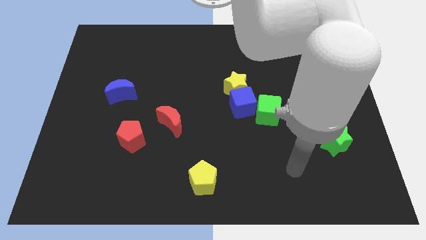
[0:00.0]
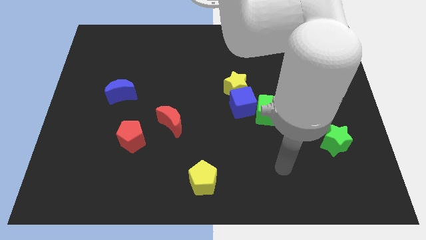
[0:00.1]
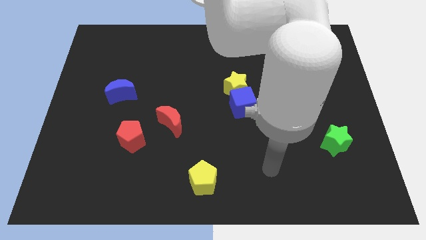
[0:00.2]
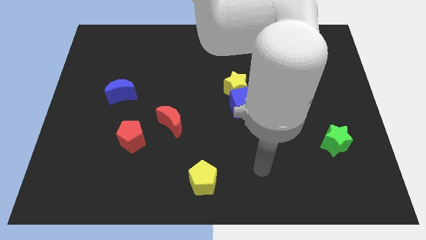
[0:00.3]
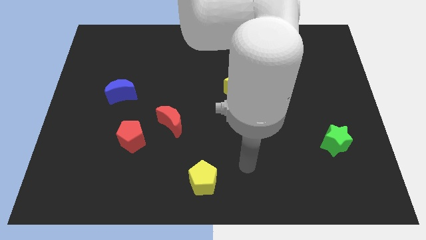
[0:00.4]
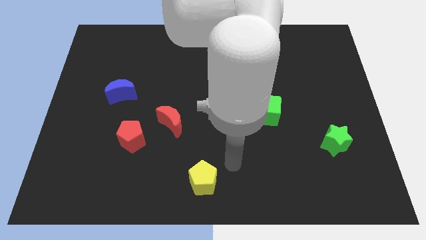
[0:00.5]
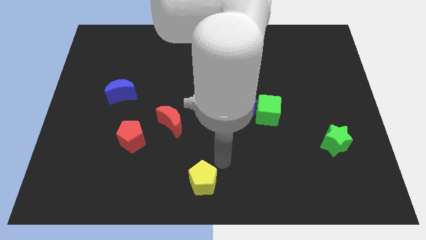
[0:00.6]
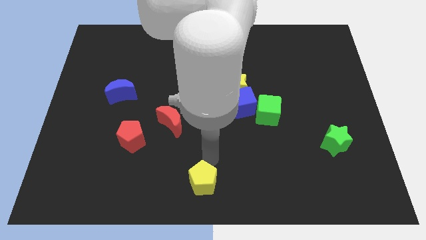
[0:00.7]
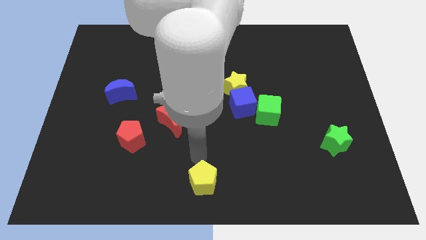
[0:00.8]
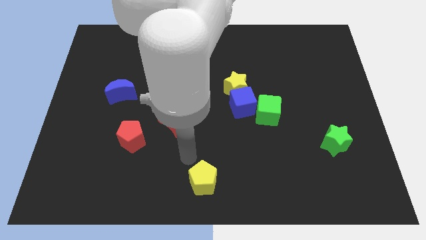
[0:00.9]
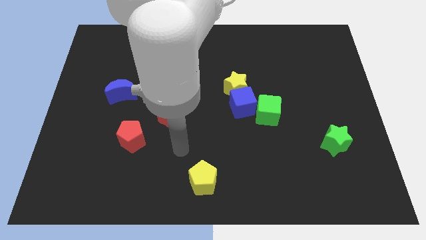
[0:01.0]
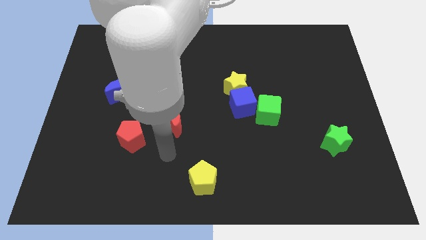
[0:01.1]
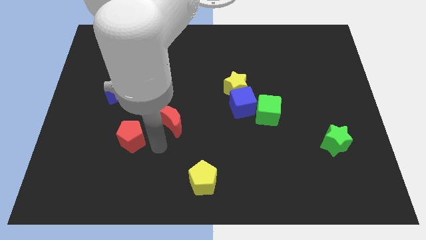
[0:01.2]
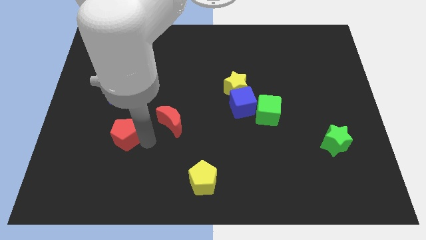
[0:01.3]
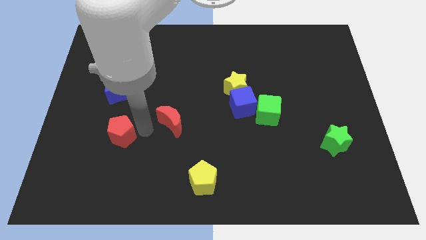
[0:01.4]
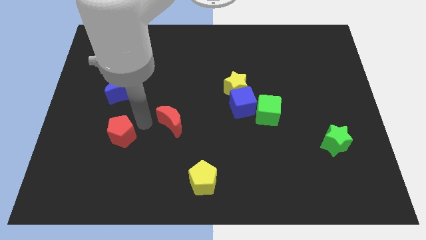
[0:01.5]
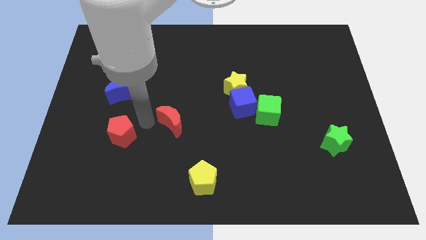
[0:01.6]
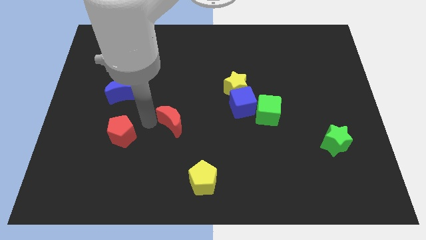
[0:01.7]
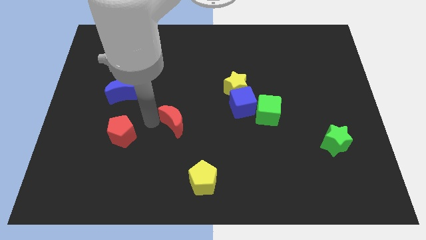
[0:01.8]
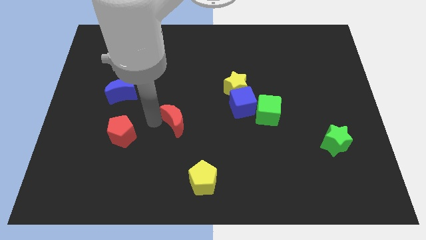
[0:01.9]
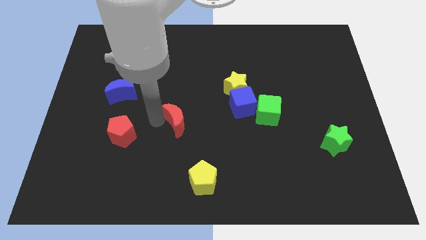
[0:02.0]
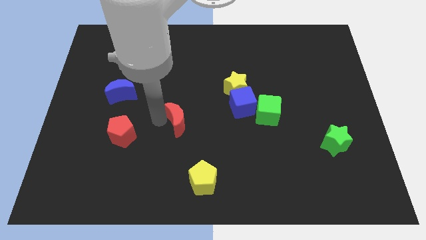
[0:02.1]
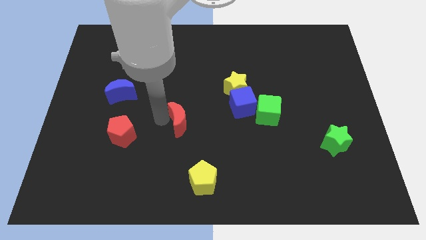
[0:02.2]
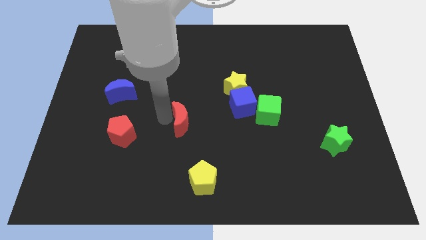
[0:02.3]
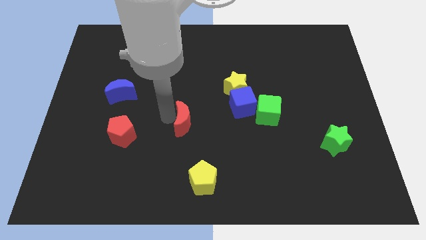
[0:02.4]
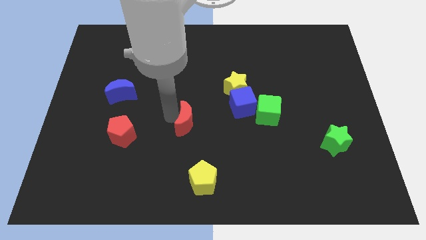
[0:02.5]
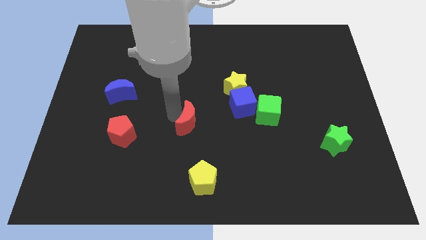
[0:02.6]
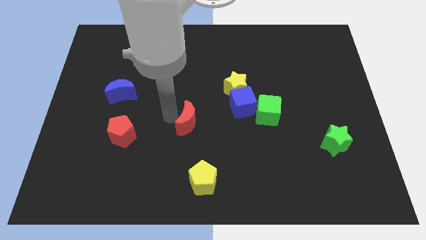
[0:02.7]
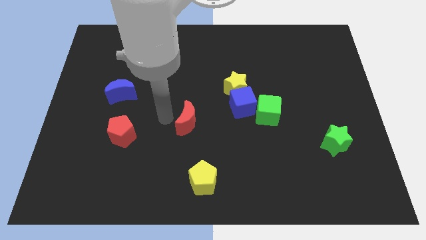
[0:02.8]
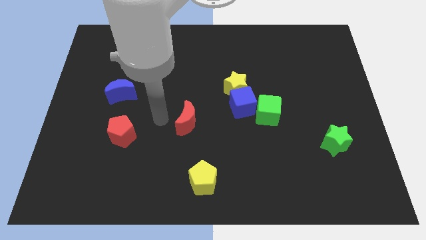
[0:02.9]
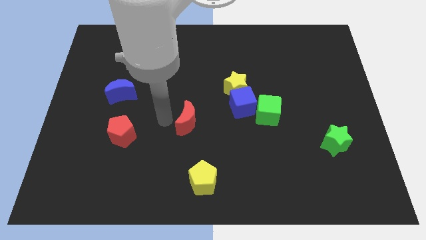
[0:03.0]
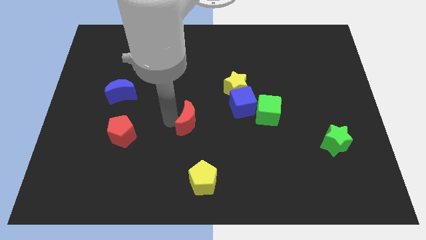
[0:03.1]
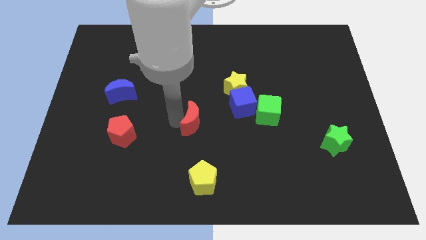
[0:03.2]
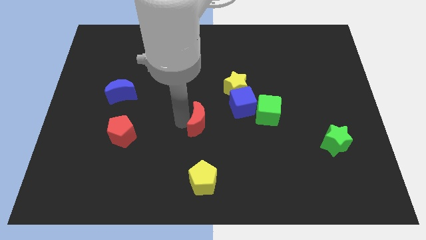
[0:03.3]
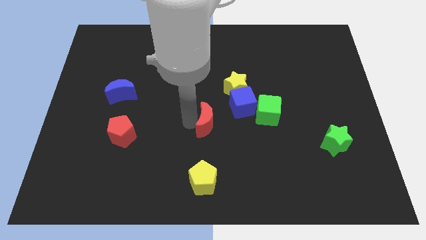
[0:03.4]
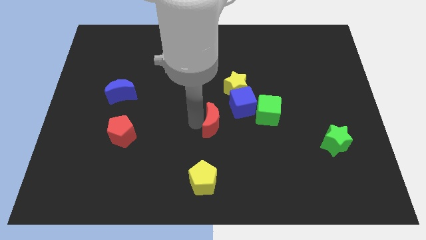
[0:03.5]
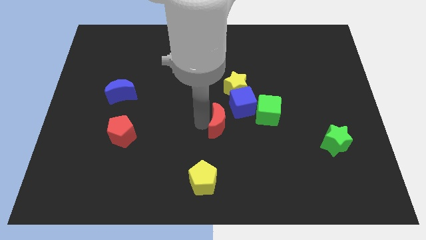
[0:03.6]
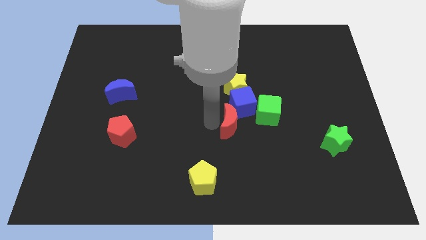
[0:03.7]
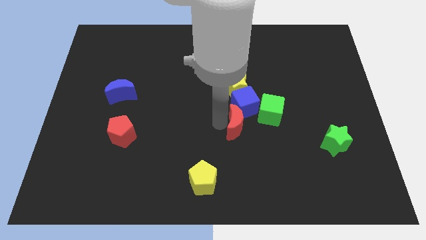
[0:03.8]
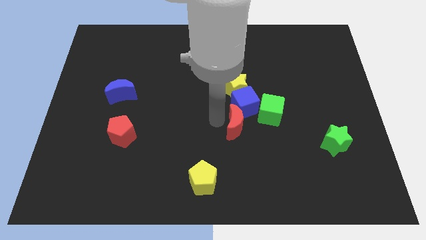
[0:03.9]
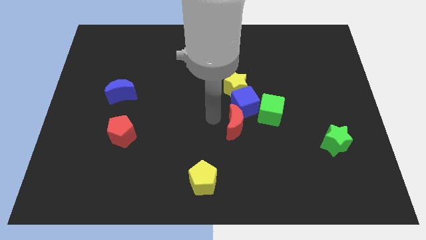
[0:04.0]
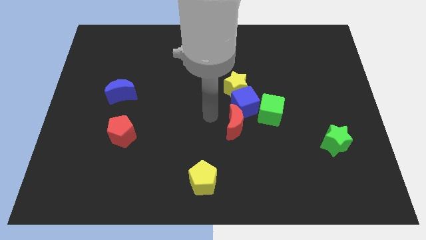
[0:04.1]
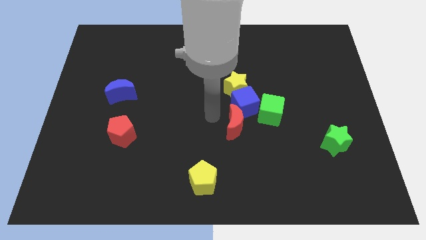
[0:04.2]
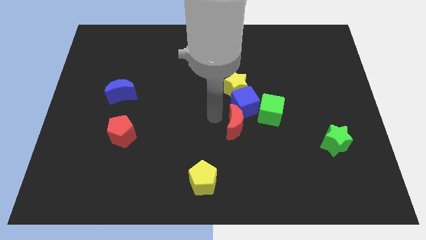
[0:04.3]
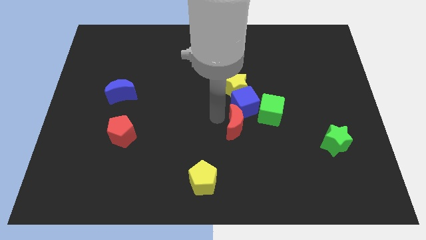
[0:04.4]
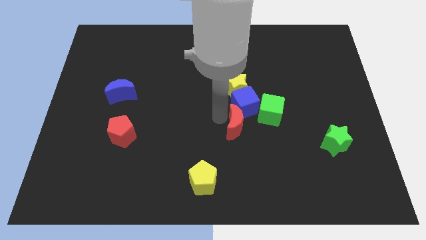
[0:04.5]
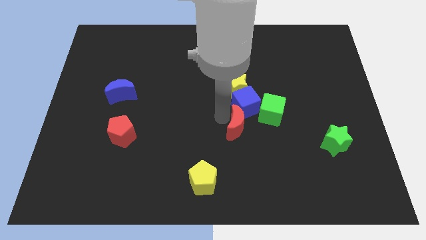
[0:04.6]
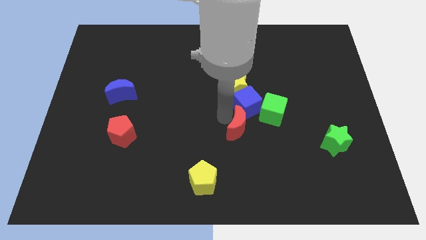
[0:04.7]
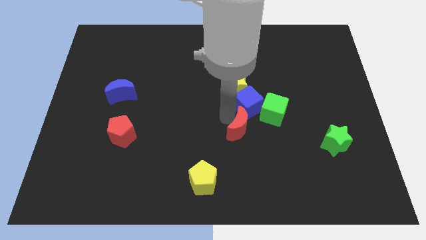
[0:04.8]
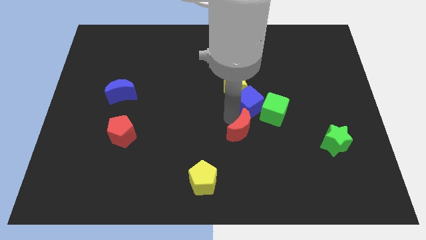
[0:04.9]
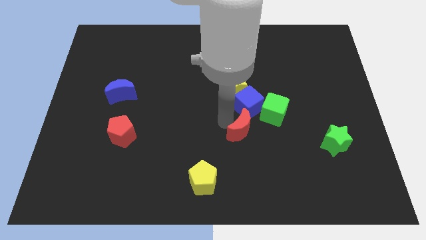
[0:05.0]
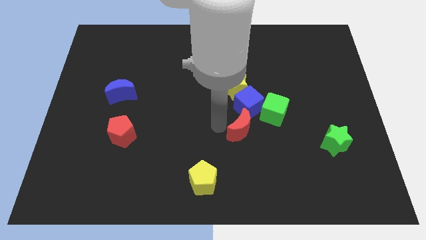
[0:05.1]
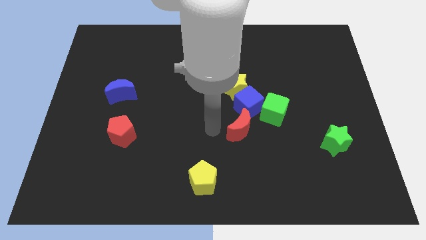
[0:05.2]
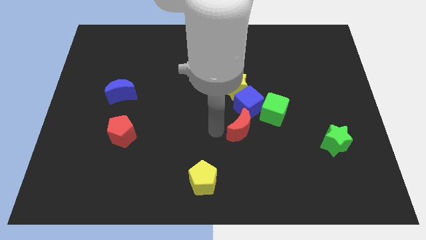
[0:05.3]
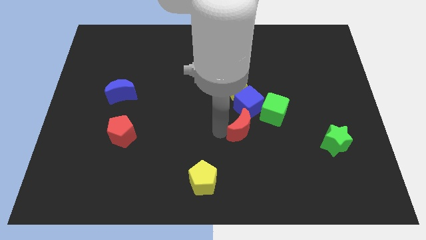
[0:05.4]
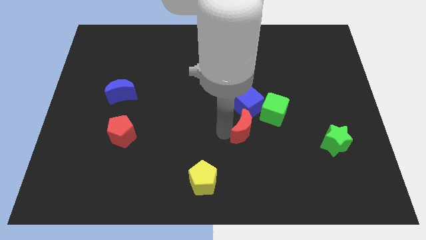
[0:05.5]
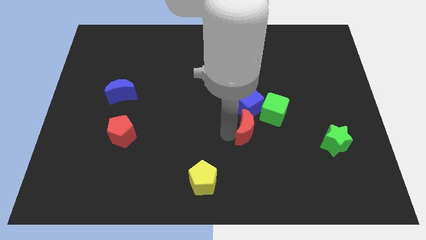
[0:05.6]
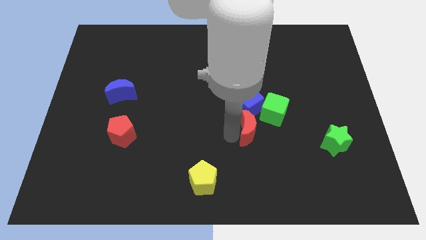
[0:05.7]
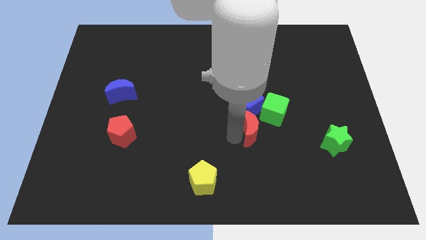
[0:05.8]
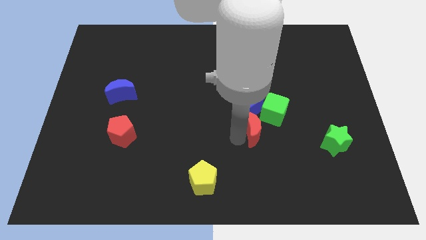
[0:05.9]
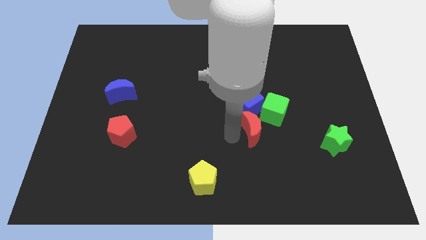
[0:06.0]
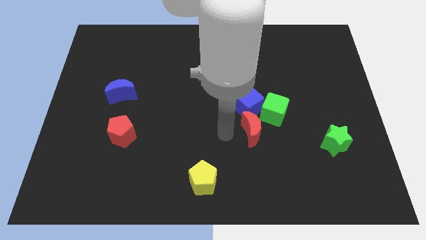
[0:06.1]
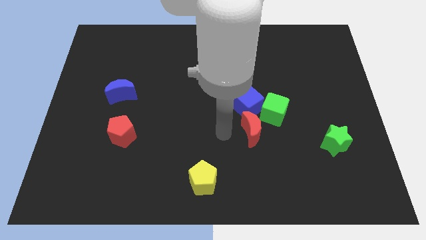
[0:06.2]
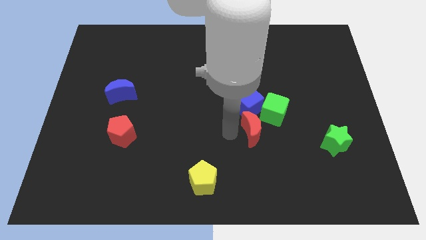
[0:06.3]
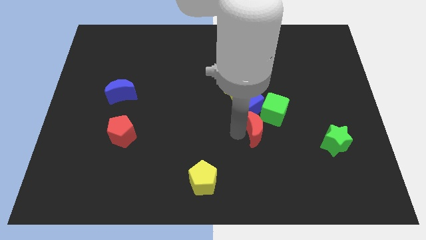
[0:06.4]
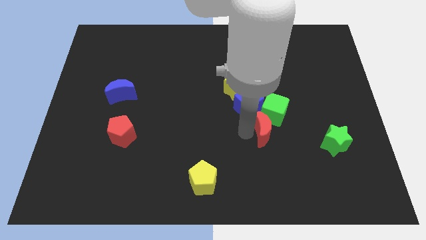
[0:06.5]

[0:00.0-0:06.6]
slide the red moon right

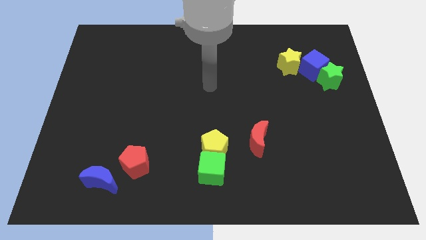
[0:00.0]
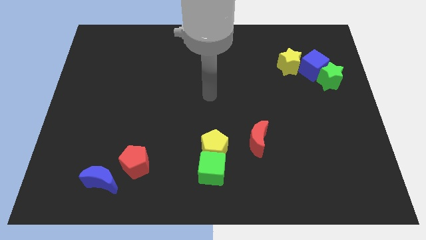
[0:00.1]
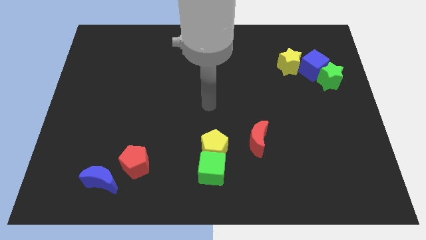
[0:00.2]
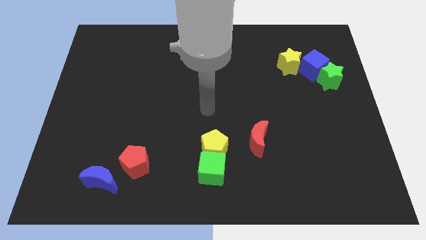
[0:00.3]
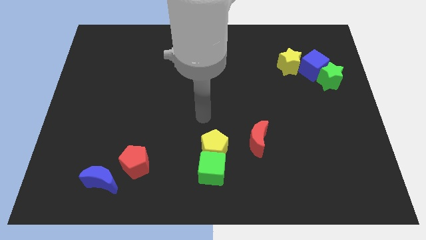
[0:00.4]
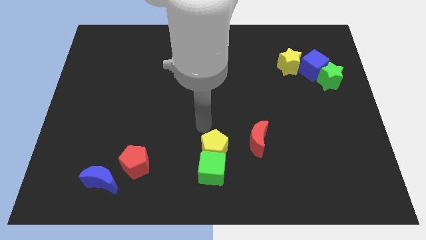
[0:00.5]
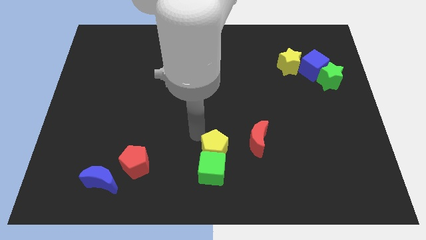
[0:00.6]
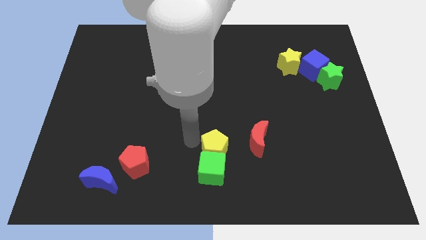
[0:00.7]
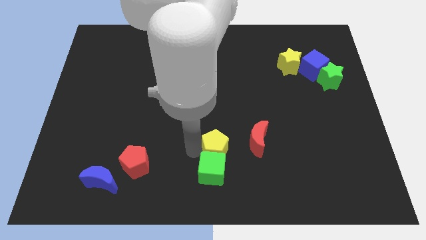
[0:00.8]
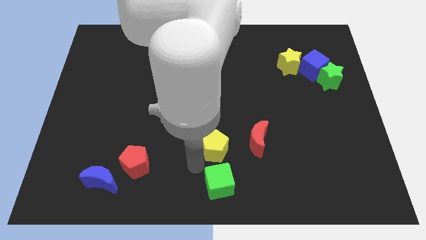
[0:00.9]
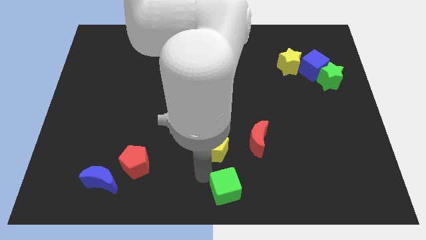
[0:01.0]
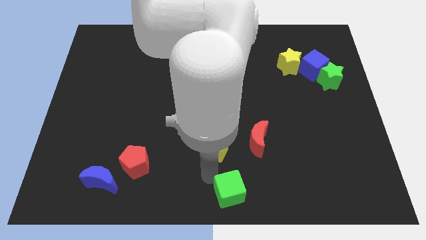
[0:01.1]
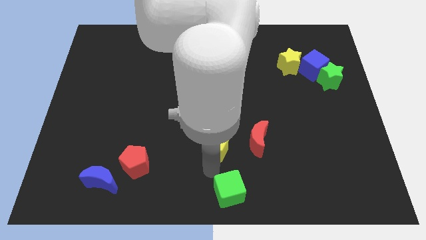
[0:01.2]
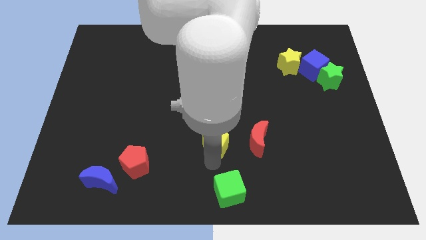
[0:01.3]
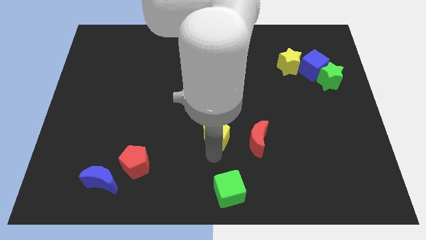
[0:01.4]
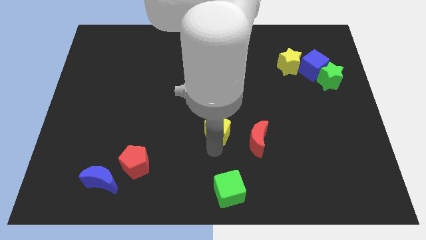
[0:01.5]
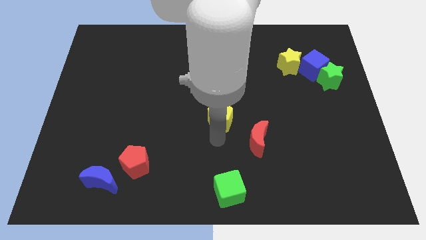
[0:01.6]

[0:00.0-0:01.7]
slightly move the yellow pentagon up

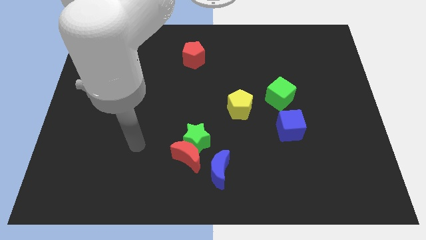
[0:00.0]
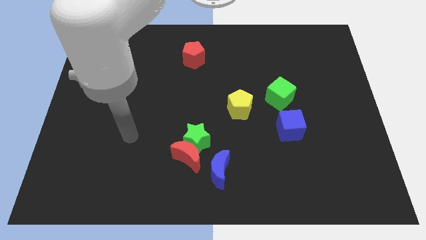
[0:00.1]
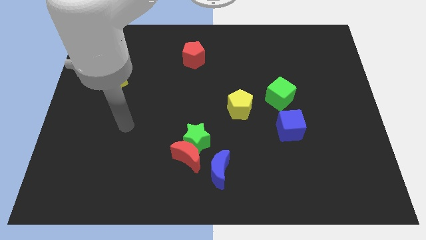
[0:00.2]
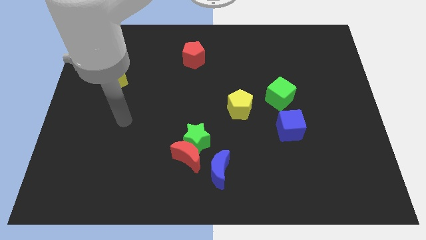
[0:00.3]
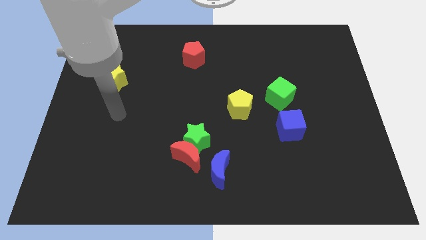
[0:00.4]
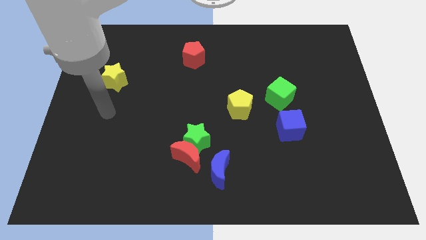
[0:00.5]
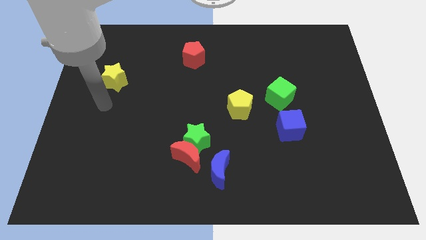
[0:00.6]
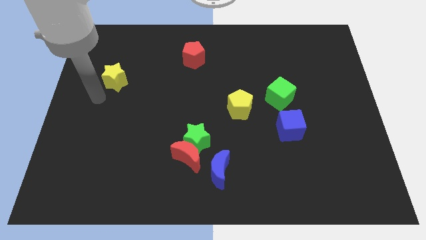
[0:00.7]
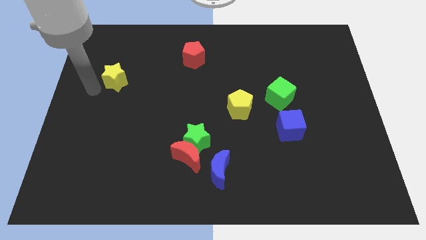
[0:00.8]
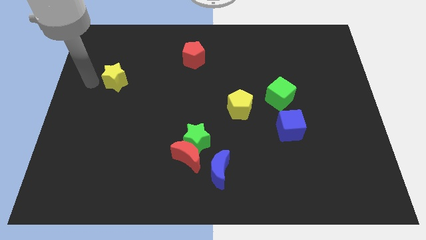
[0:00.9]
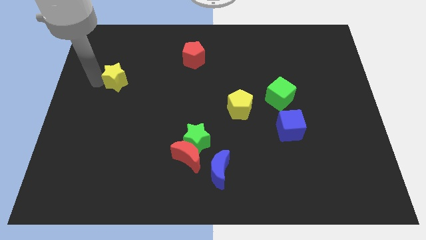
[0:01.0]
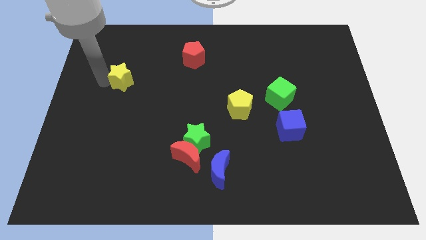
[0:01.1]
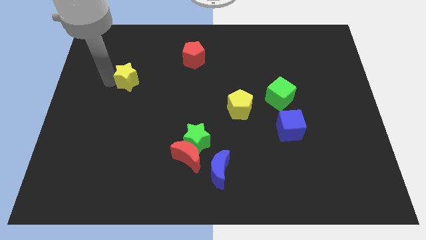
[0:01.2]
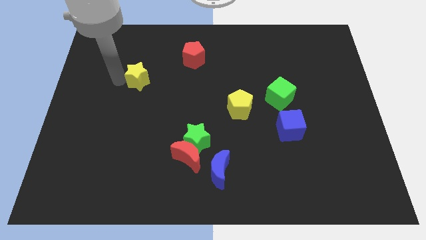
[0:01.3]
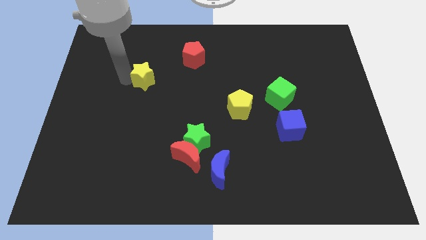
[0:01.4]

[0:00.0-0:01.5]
slide the yellow star to the right a bit
